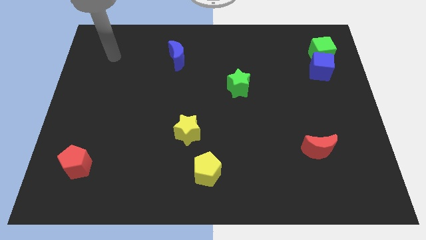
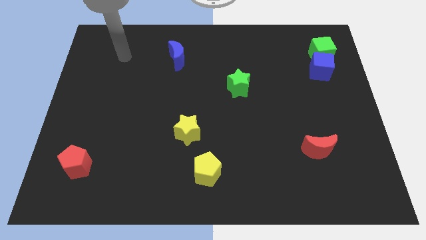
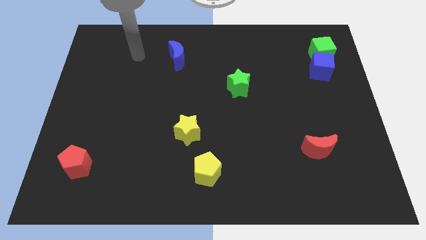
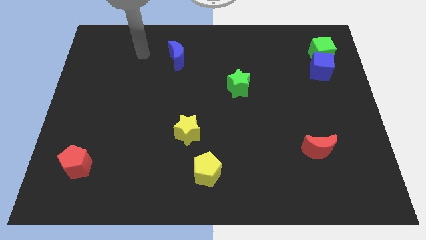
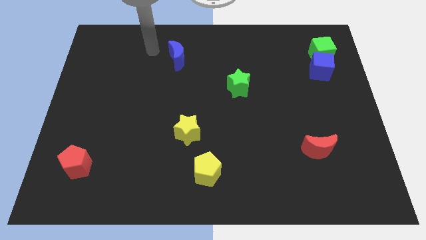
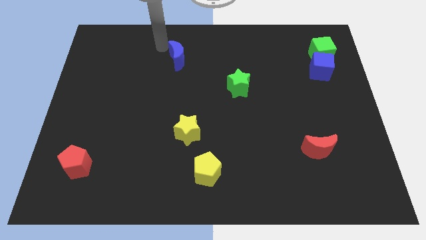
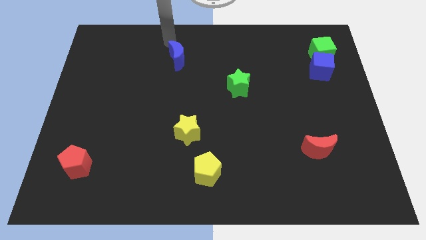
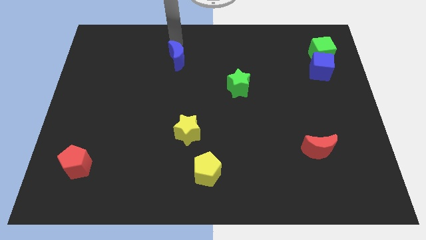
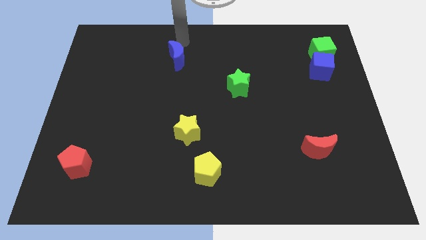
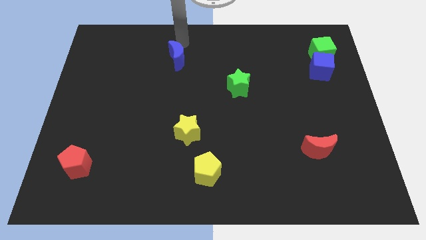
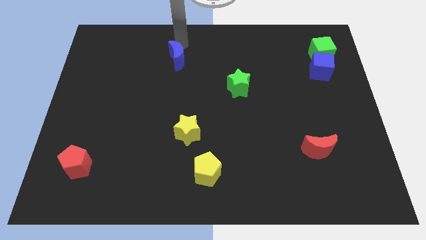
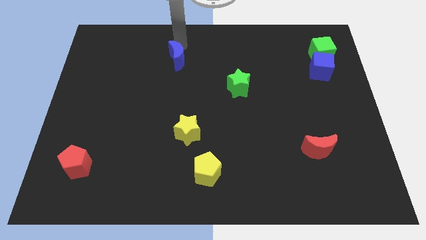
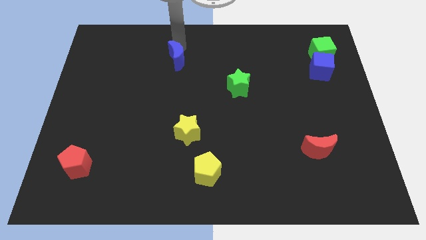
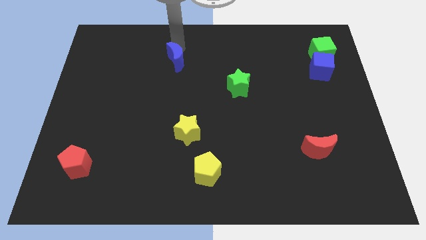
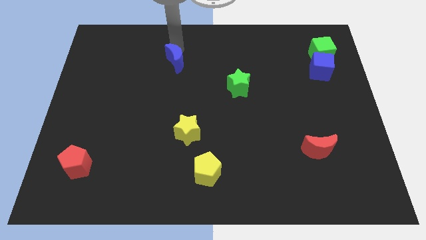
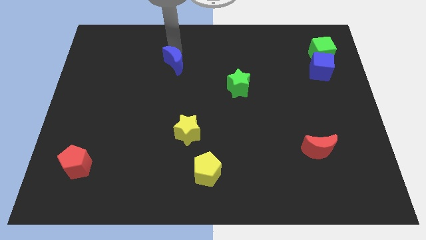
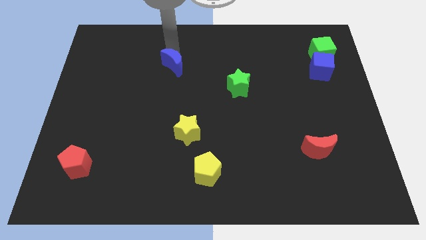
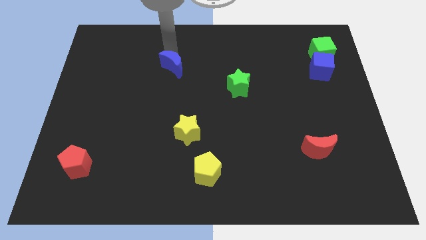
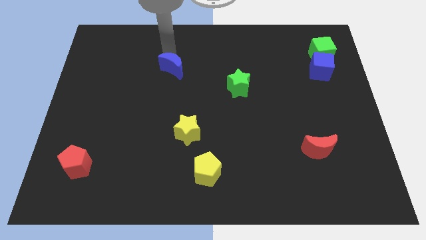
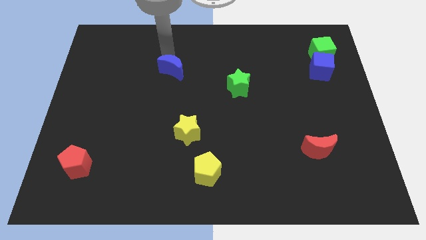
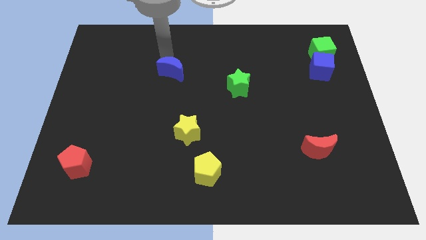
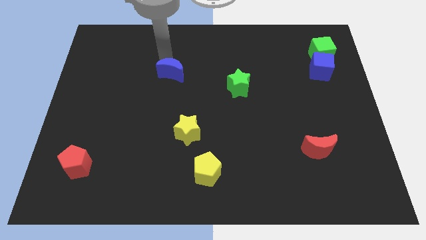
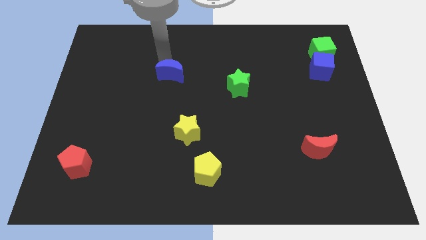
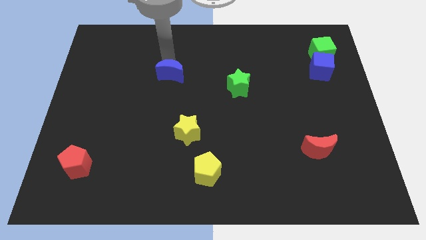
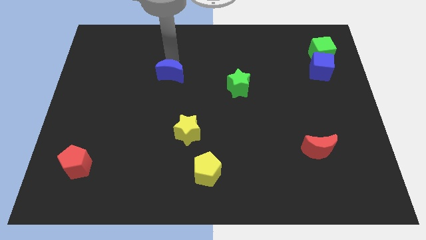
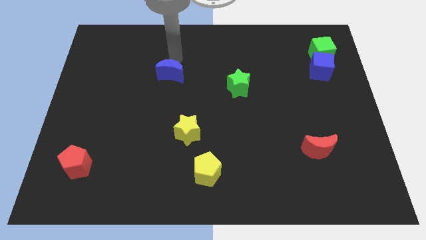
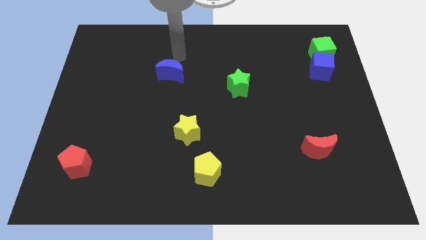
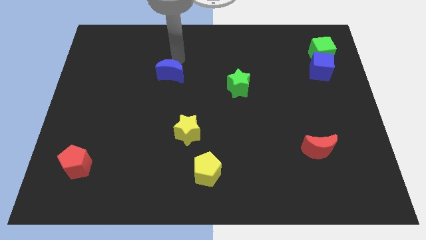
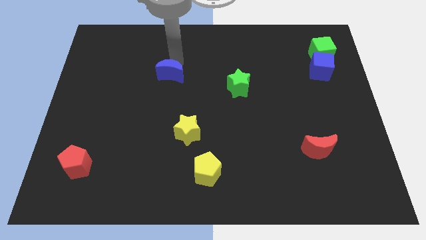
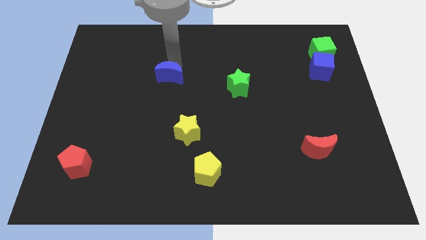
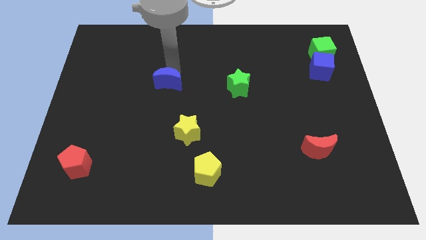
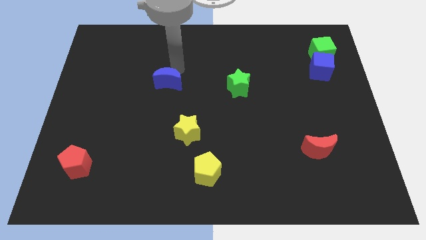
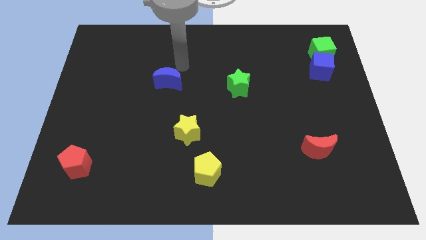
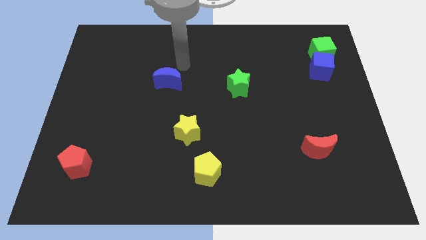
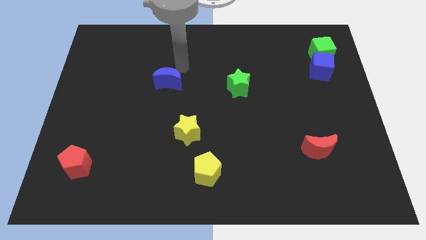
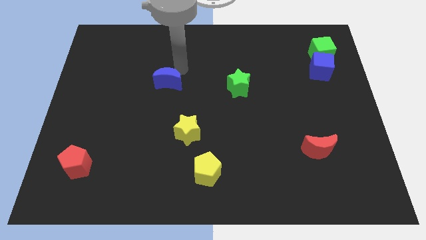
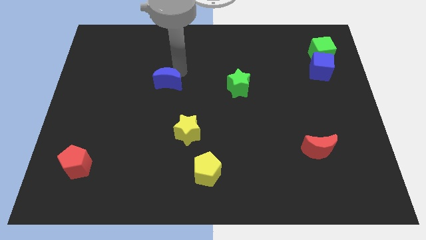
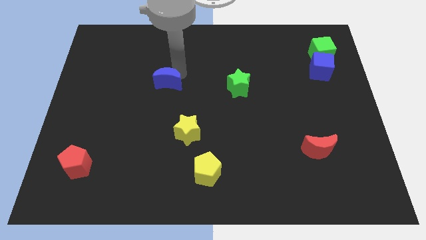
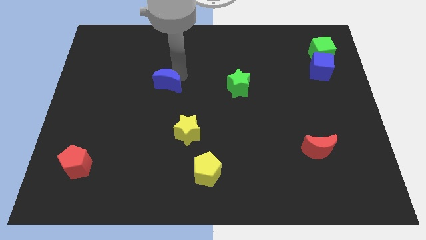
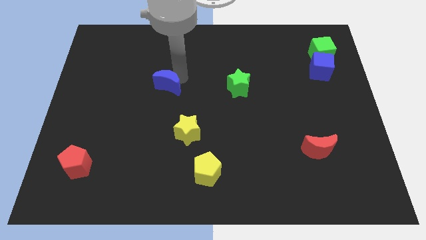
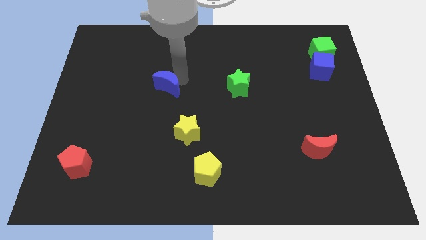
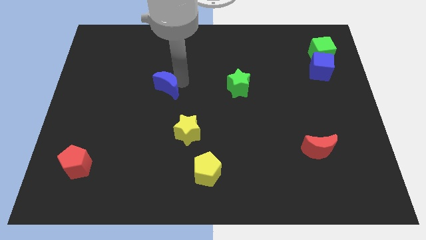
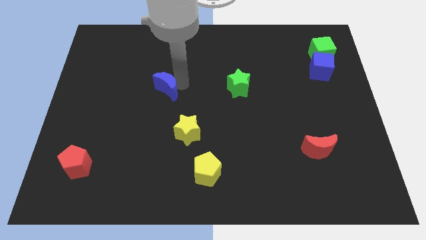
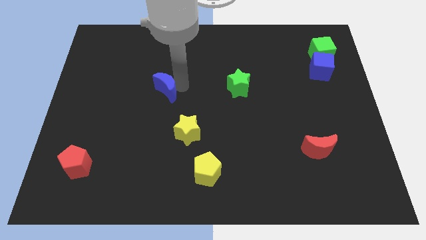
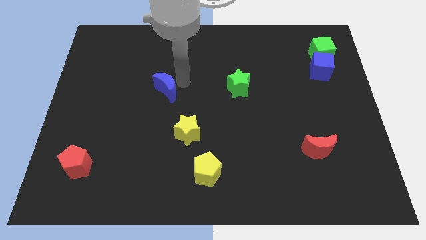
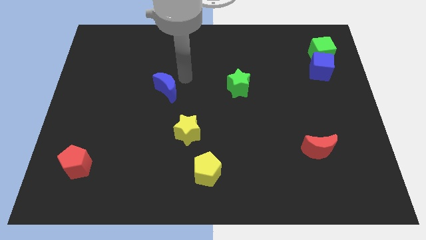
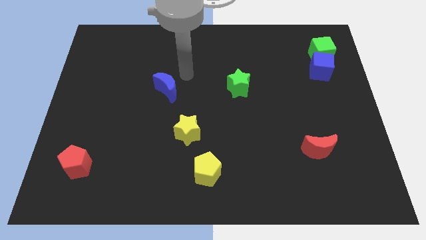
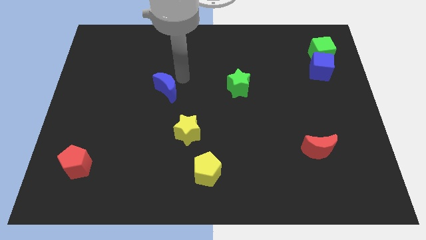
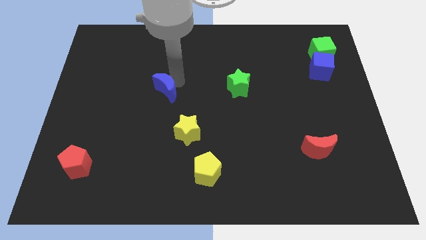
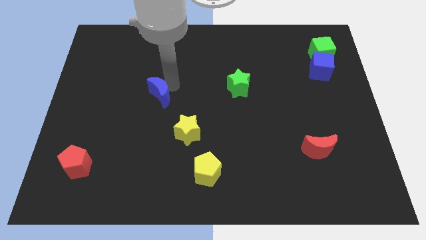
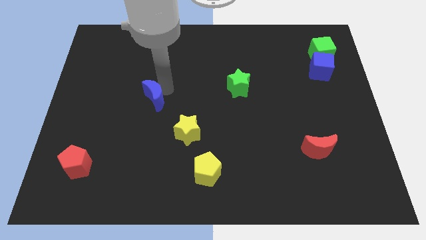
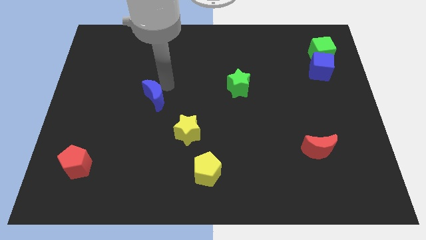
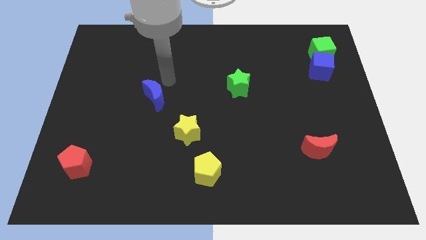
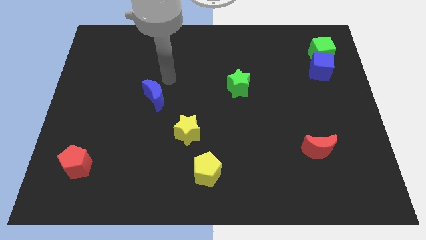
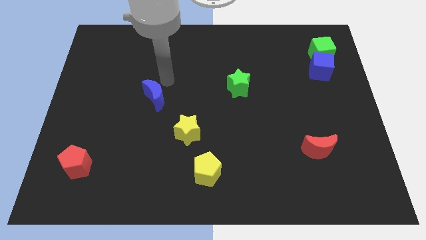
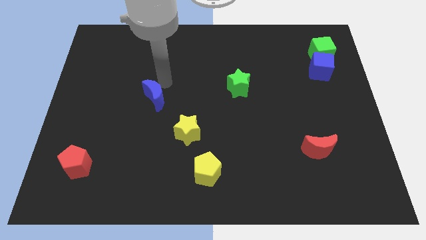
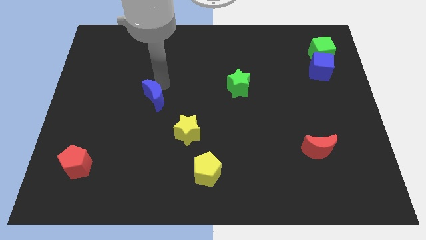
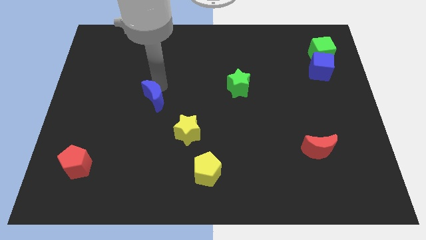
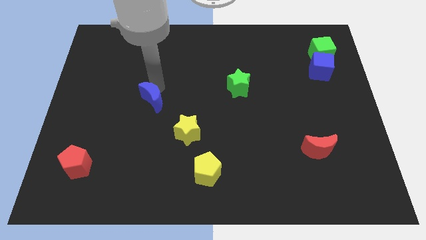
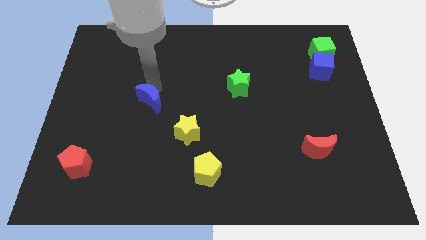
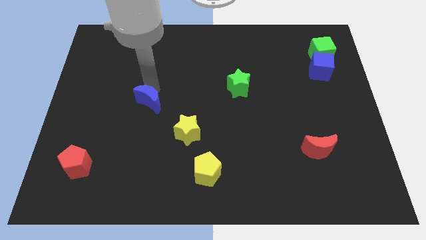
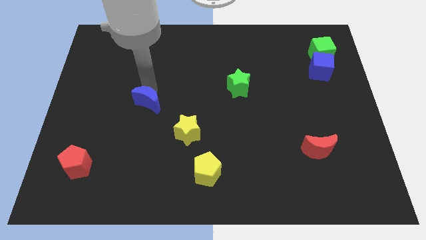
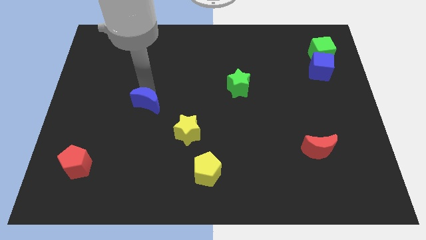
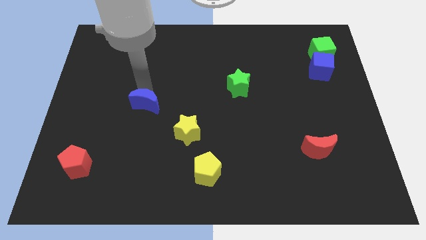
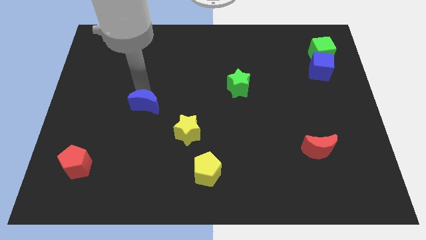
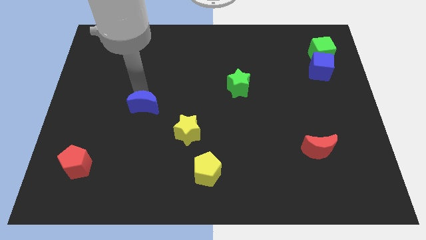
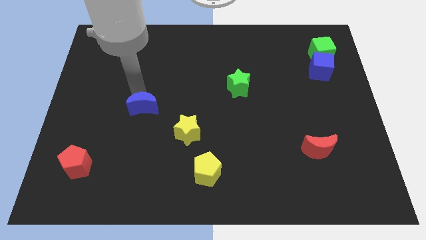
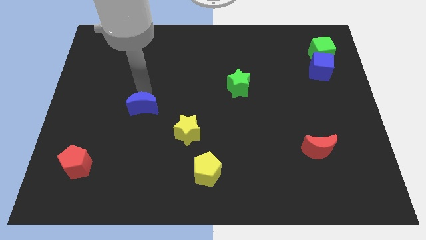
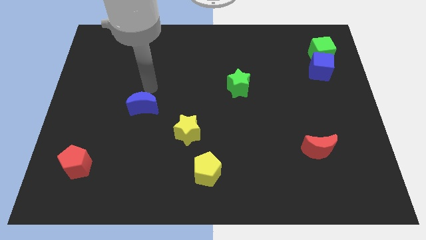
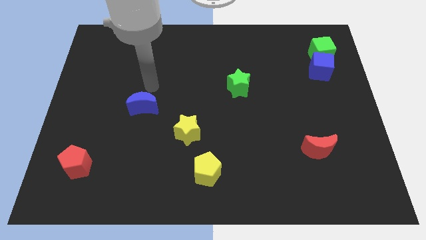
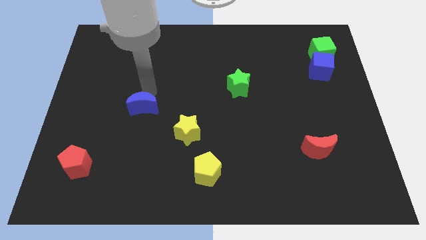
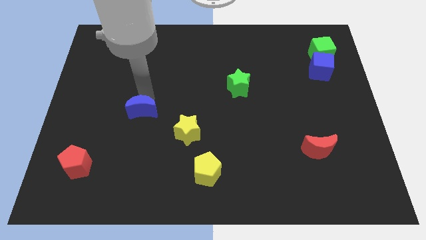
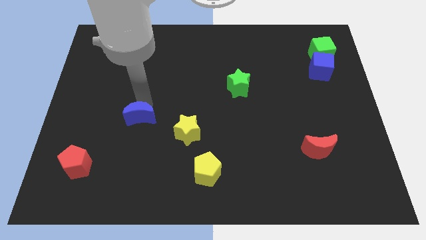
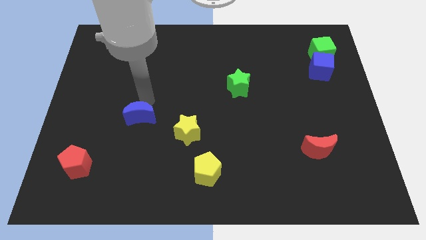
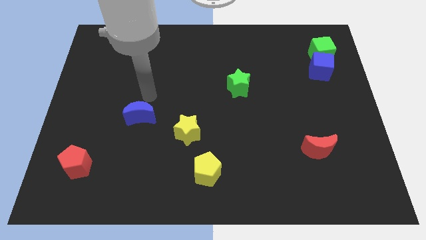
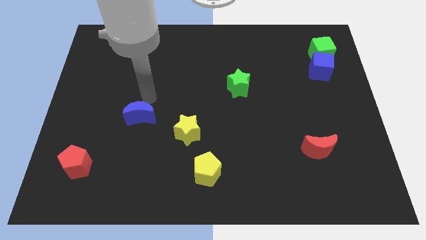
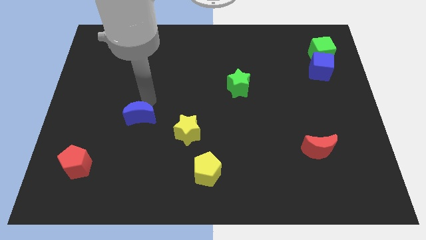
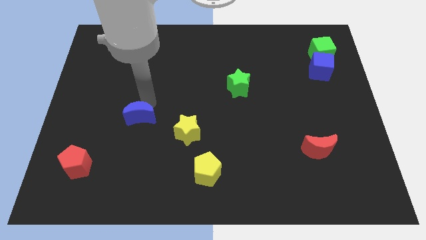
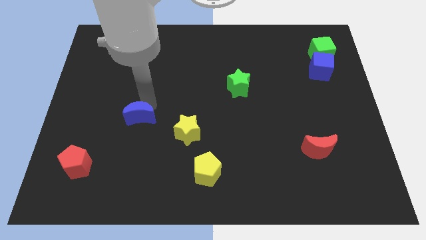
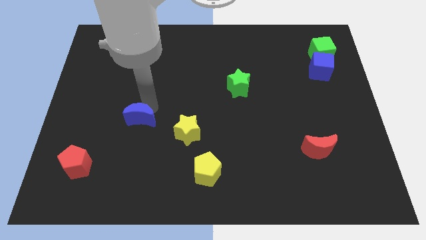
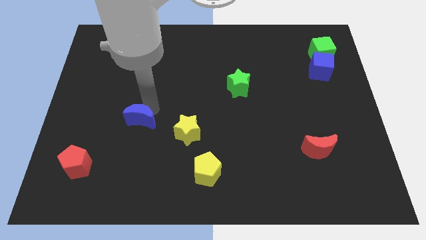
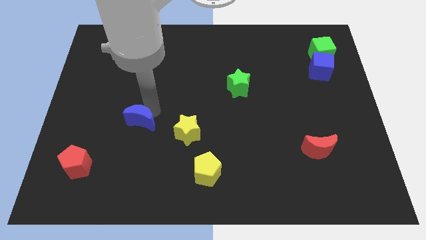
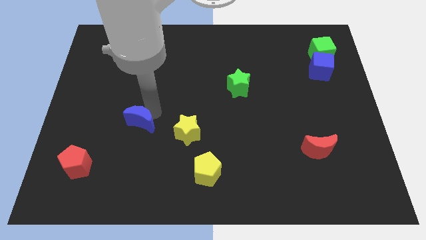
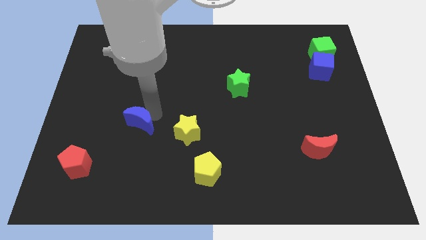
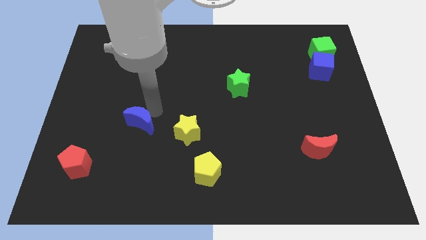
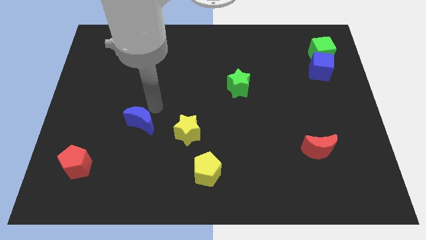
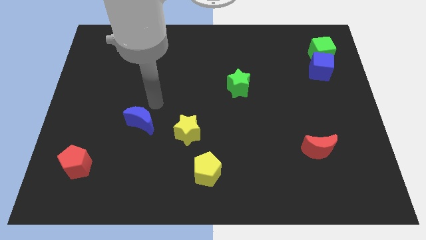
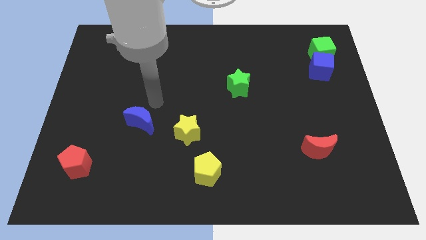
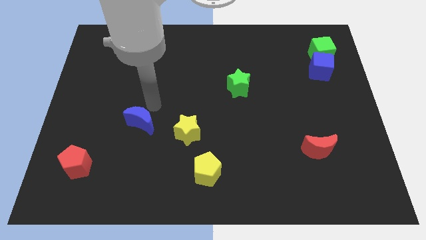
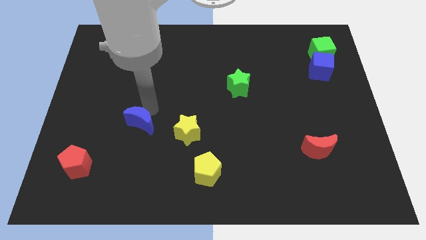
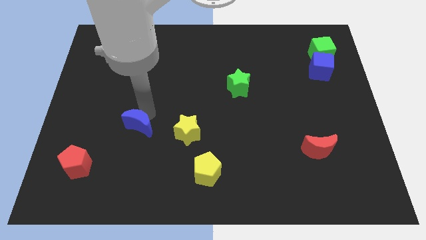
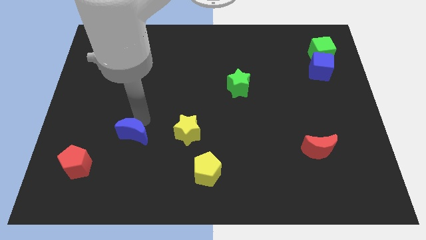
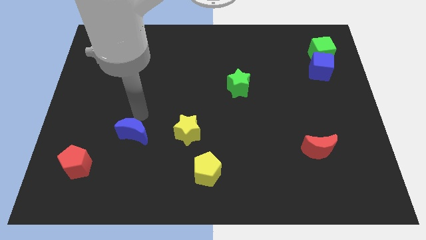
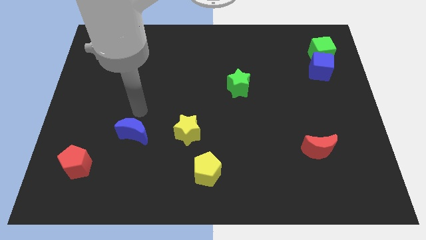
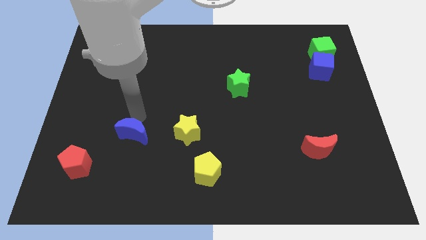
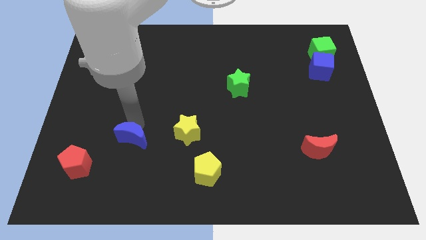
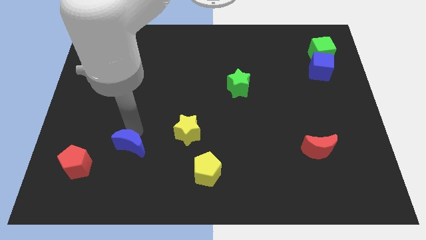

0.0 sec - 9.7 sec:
move the blue moon to the right of the red pentagon
